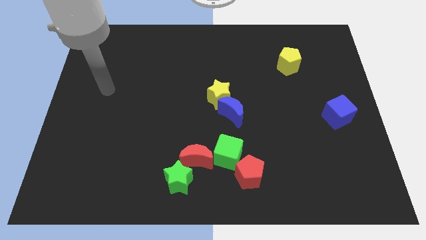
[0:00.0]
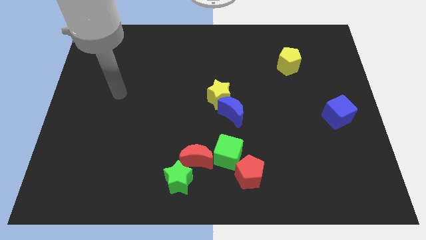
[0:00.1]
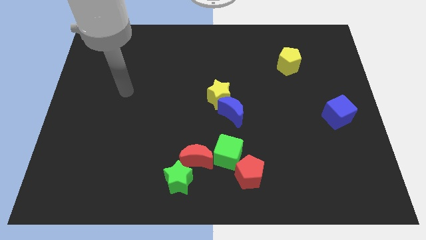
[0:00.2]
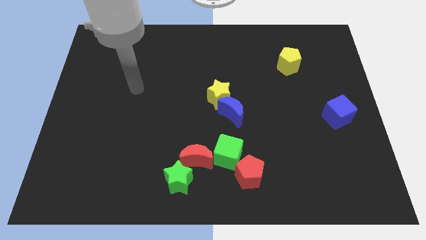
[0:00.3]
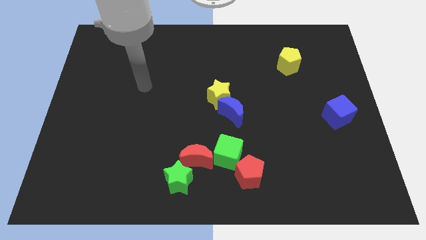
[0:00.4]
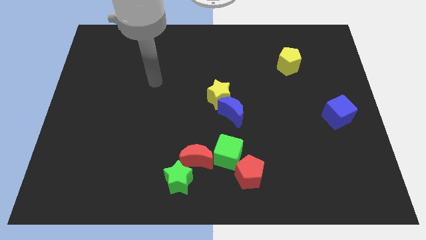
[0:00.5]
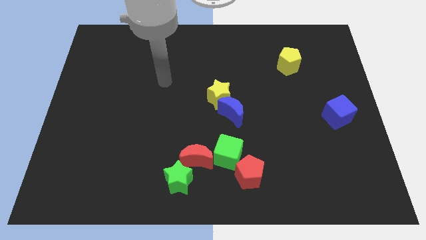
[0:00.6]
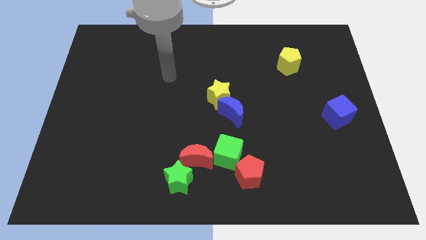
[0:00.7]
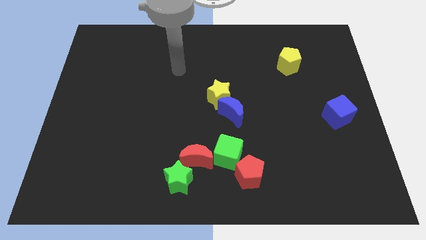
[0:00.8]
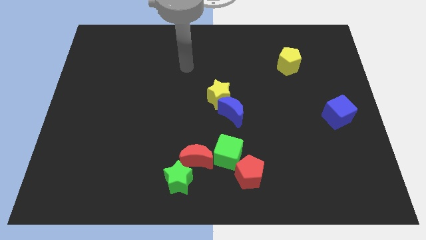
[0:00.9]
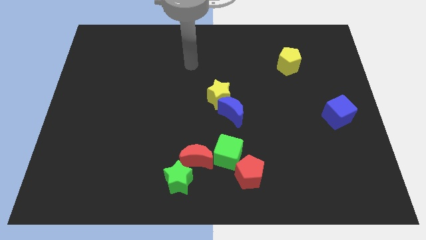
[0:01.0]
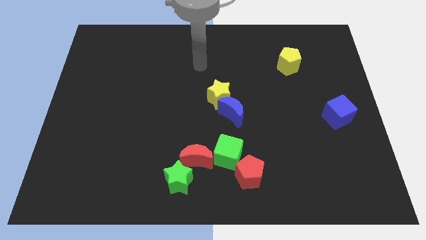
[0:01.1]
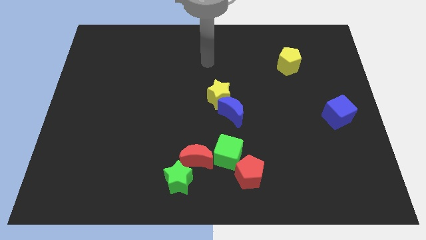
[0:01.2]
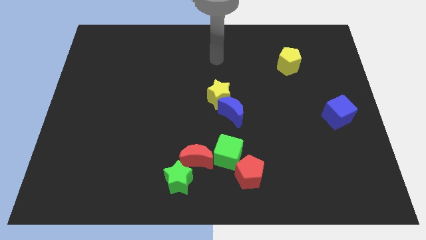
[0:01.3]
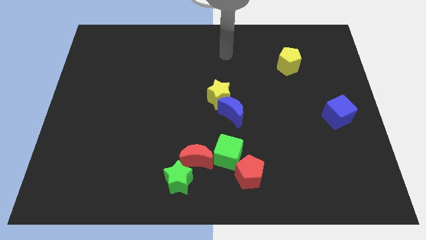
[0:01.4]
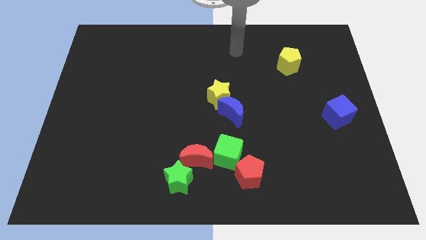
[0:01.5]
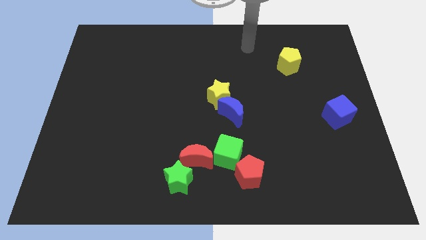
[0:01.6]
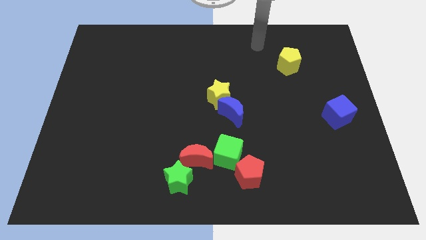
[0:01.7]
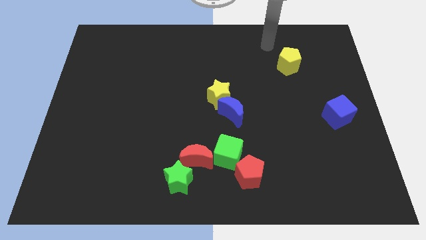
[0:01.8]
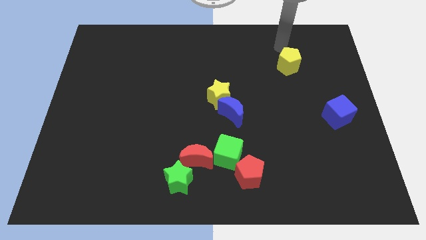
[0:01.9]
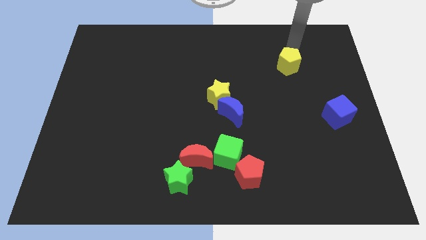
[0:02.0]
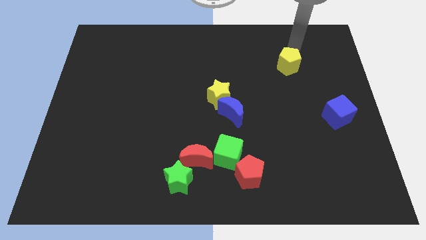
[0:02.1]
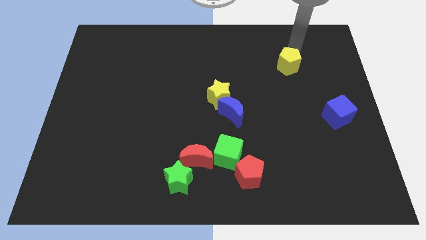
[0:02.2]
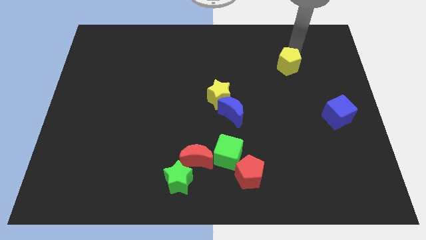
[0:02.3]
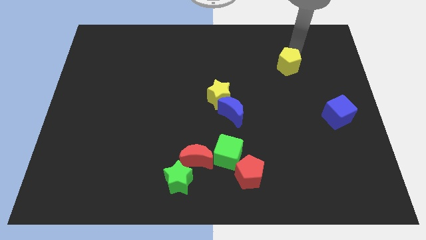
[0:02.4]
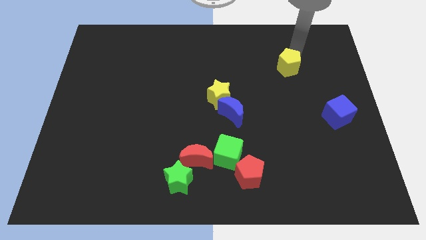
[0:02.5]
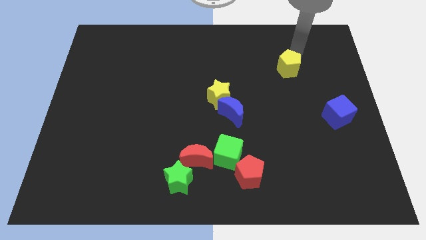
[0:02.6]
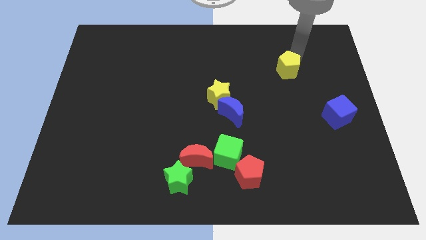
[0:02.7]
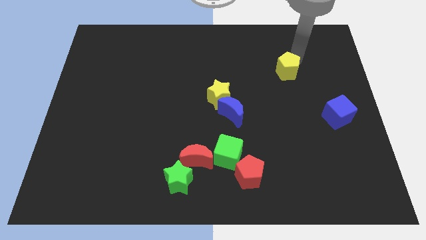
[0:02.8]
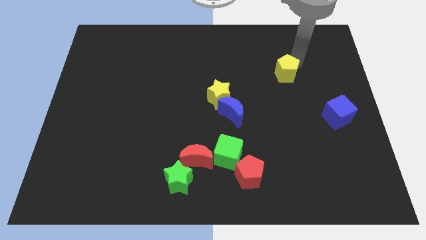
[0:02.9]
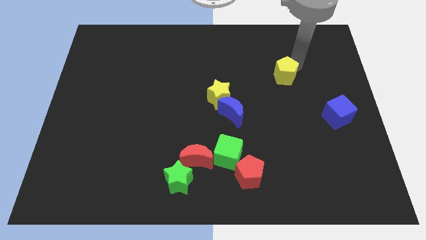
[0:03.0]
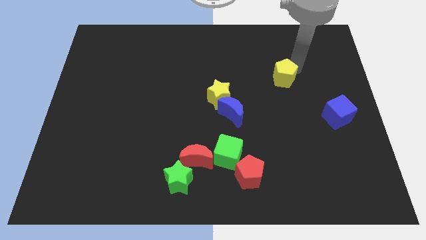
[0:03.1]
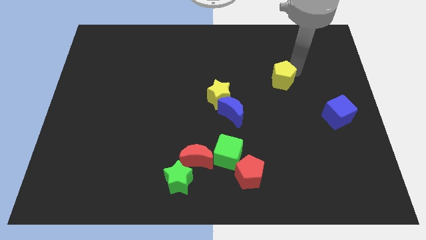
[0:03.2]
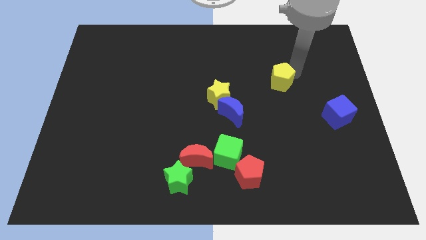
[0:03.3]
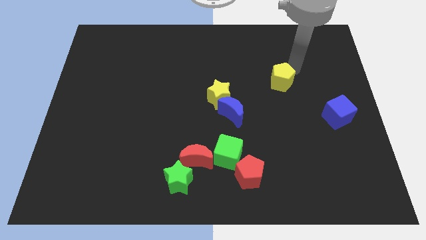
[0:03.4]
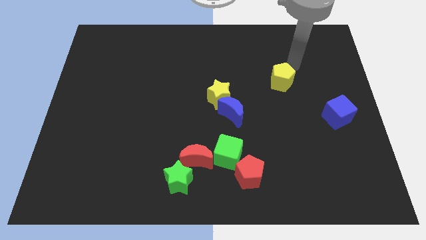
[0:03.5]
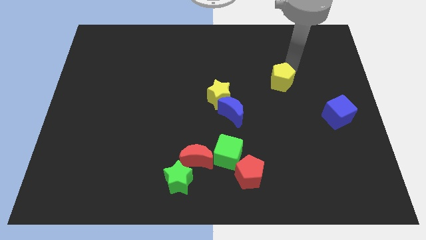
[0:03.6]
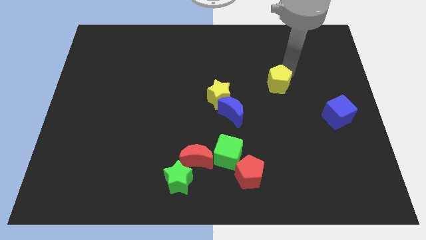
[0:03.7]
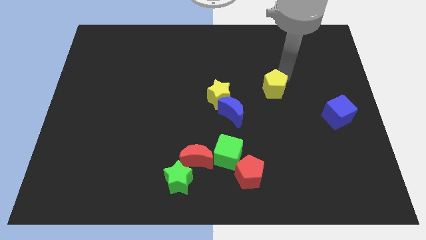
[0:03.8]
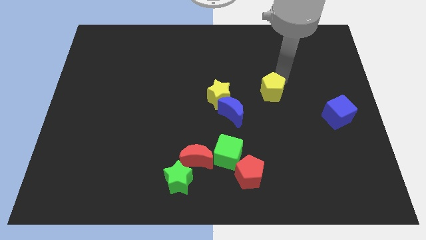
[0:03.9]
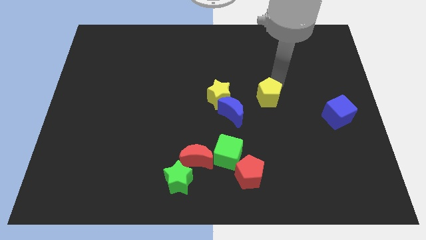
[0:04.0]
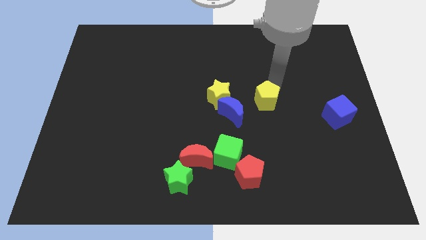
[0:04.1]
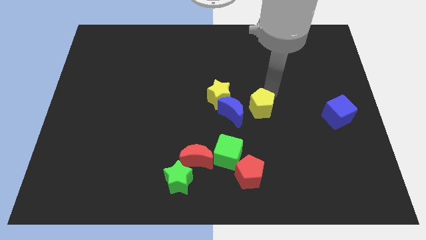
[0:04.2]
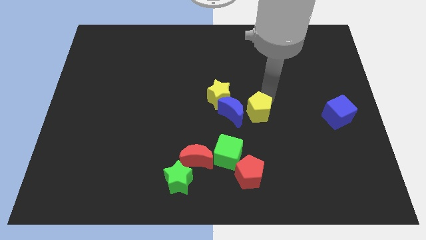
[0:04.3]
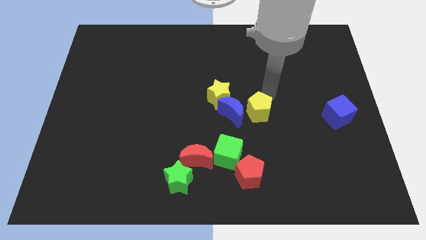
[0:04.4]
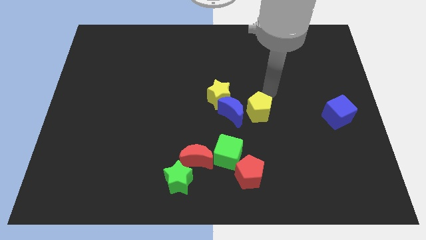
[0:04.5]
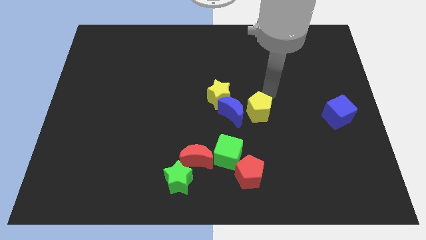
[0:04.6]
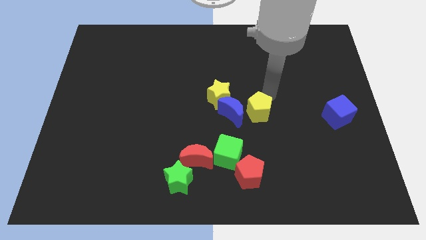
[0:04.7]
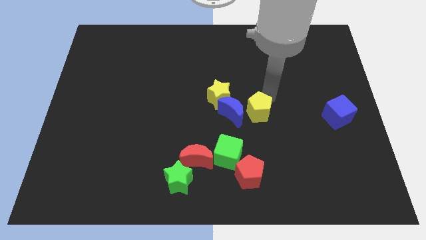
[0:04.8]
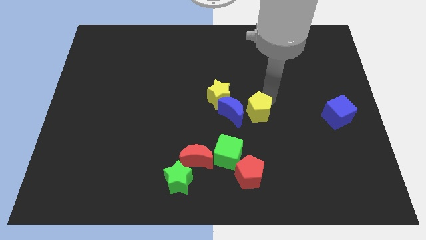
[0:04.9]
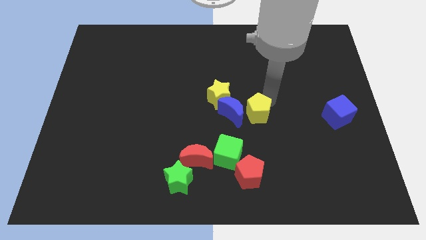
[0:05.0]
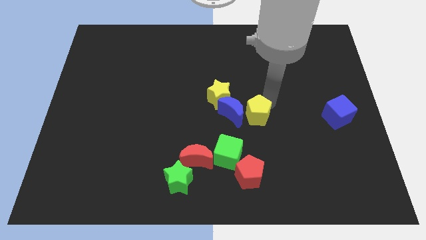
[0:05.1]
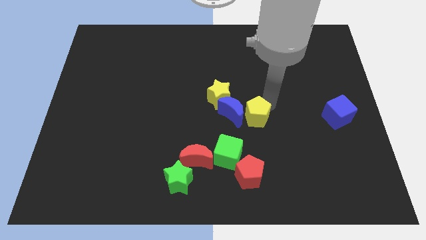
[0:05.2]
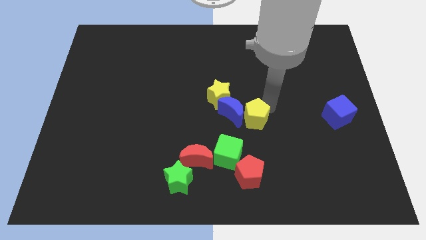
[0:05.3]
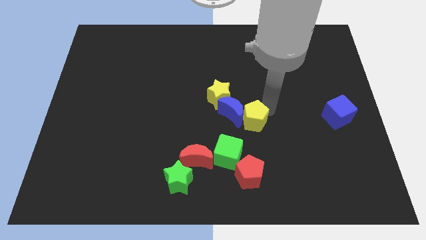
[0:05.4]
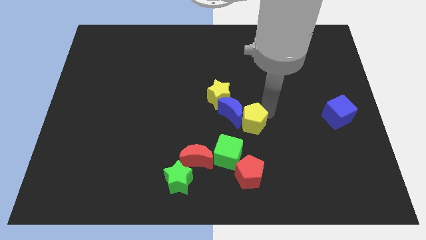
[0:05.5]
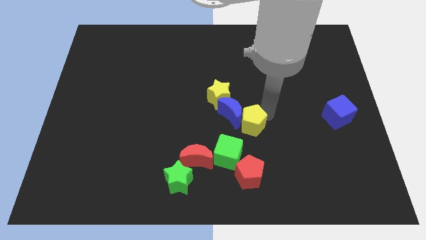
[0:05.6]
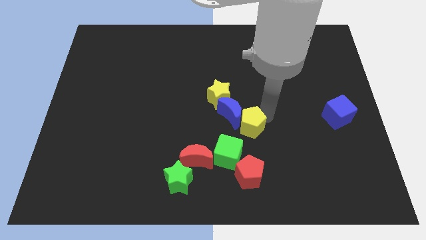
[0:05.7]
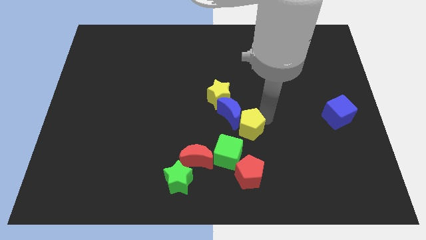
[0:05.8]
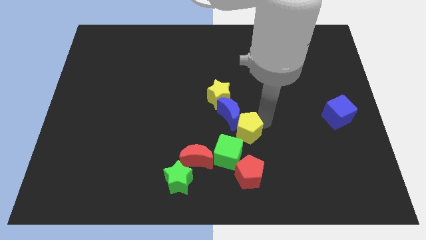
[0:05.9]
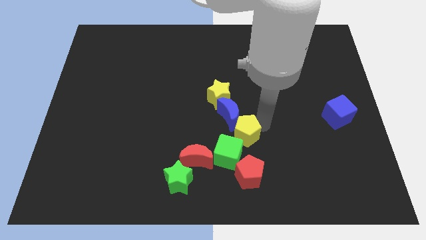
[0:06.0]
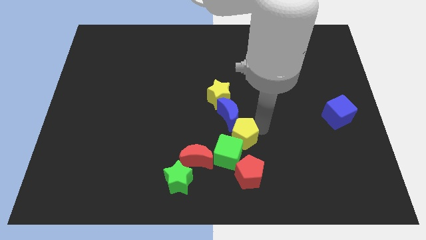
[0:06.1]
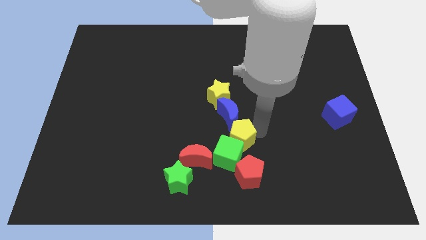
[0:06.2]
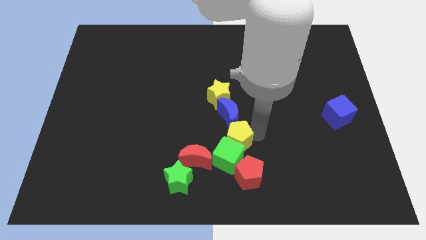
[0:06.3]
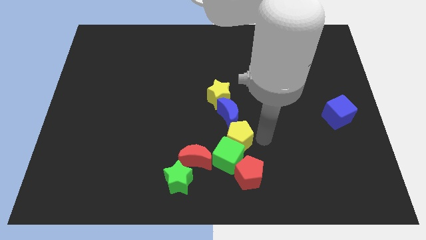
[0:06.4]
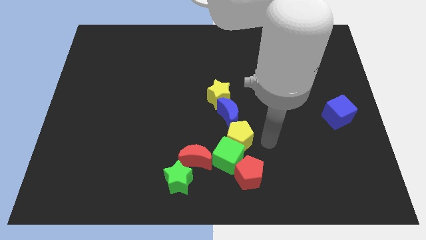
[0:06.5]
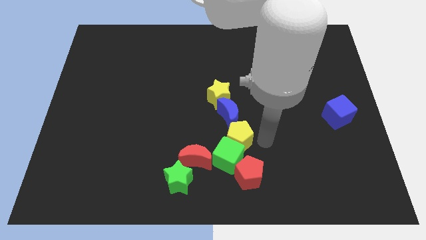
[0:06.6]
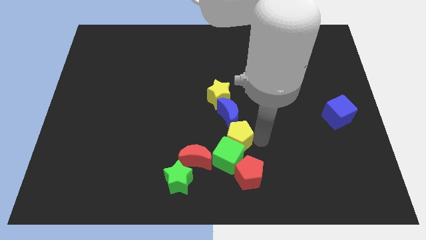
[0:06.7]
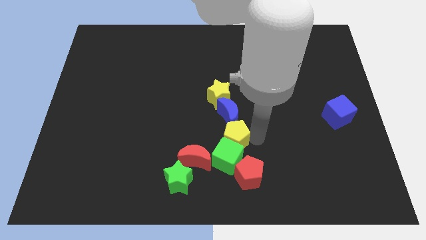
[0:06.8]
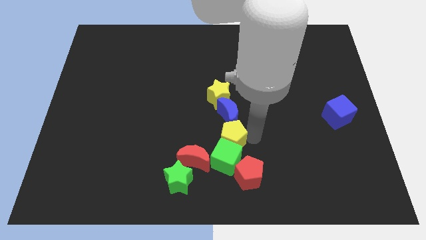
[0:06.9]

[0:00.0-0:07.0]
put the yellow pentagon to the top left side of the green cube

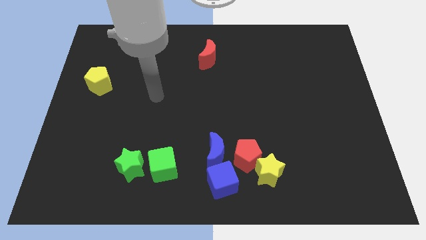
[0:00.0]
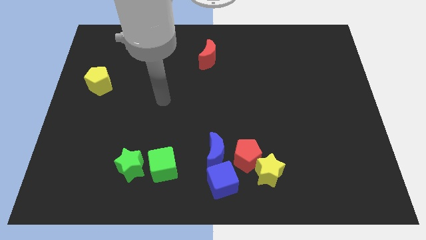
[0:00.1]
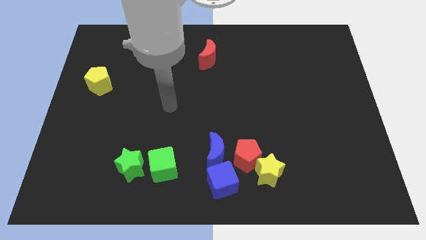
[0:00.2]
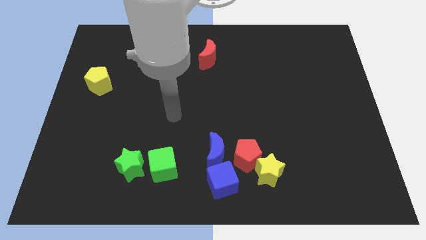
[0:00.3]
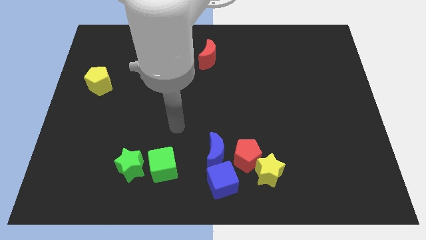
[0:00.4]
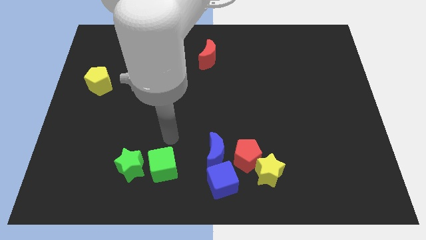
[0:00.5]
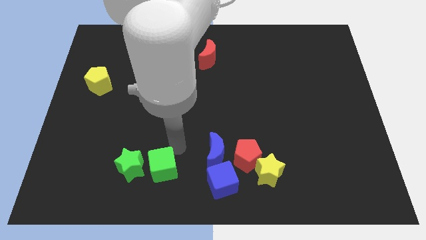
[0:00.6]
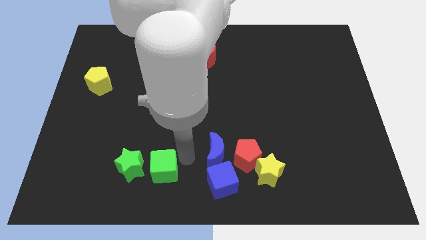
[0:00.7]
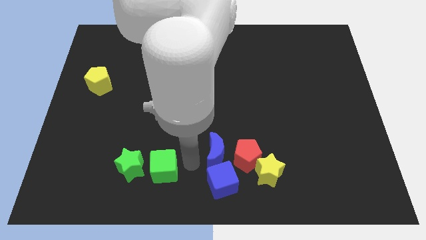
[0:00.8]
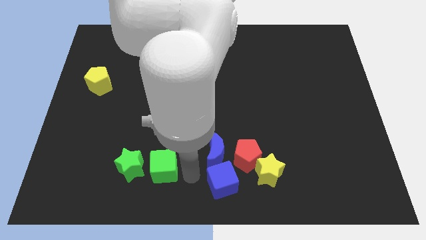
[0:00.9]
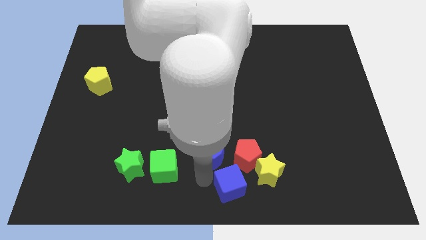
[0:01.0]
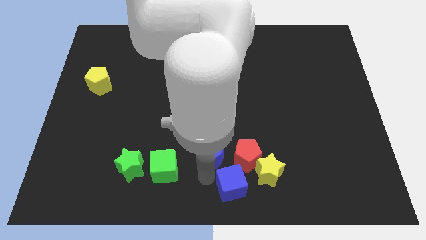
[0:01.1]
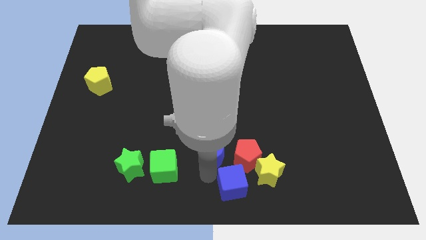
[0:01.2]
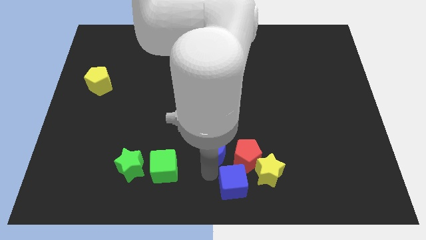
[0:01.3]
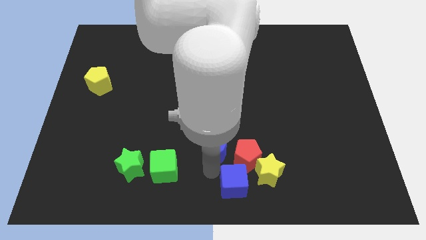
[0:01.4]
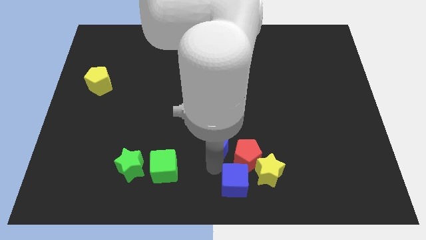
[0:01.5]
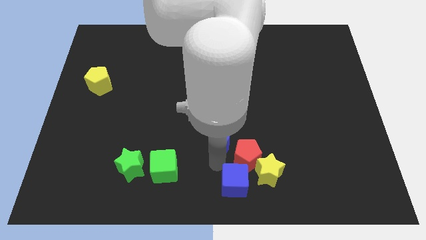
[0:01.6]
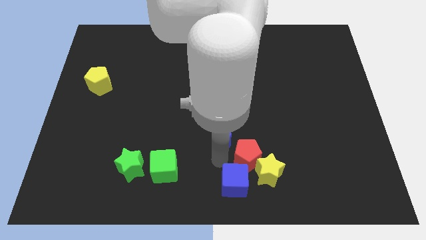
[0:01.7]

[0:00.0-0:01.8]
move the blue moon above the red pentagon
